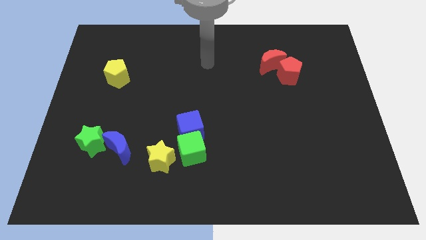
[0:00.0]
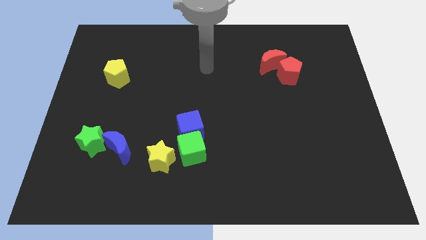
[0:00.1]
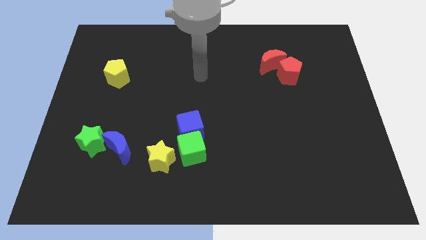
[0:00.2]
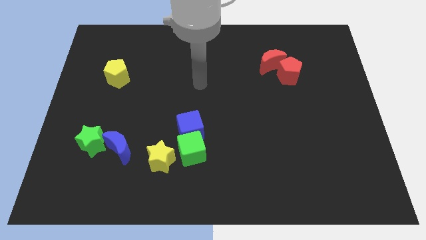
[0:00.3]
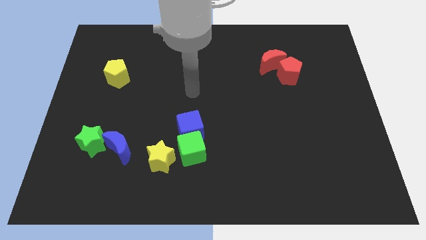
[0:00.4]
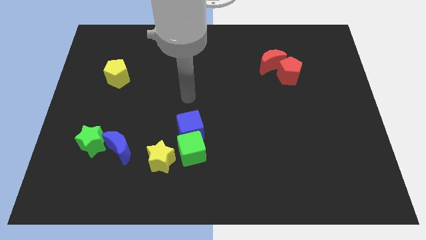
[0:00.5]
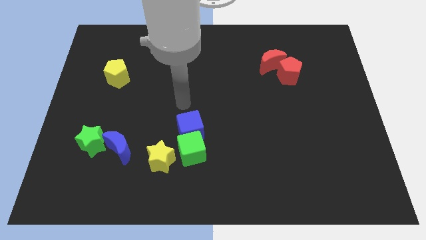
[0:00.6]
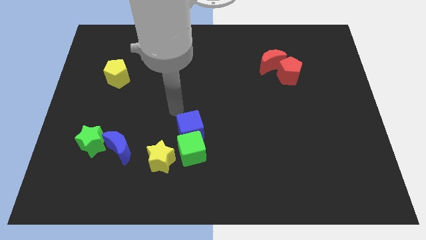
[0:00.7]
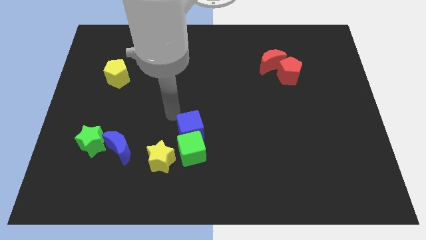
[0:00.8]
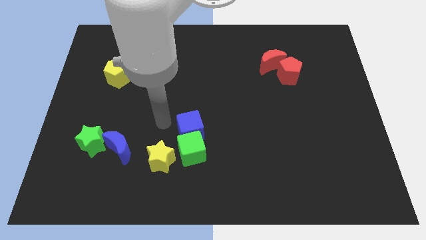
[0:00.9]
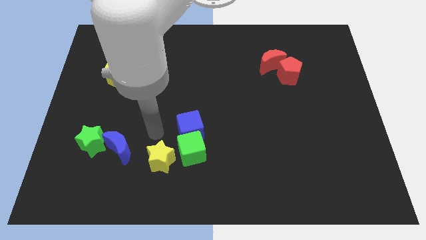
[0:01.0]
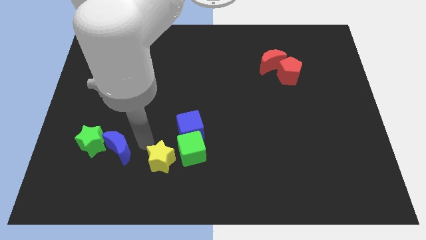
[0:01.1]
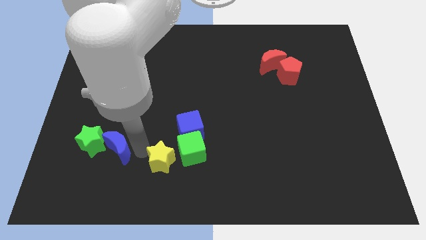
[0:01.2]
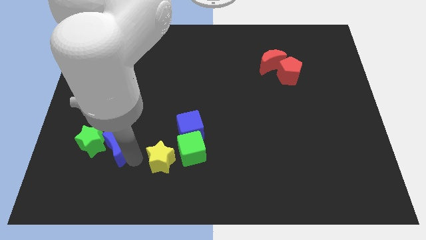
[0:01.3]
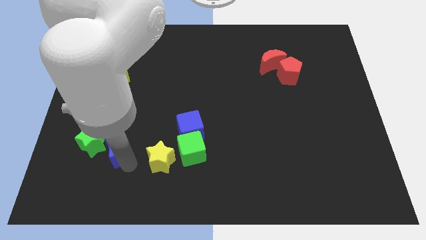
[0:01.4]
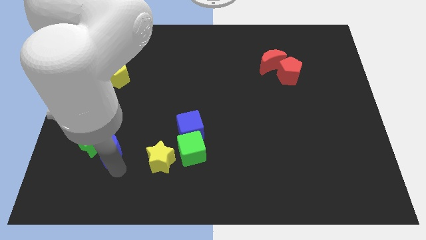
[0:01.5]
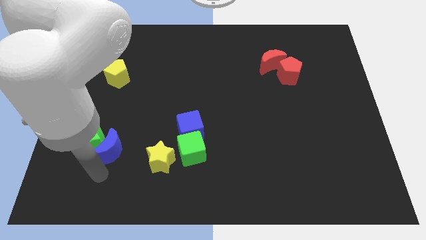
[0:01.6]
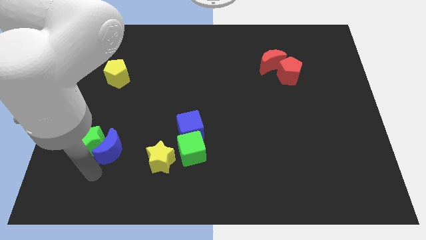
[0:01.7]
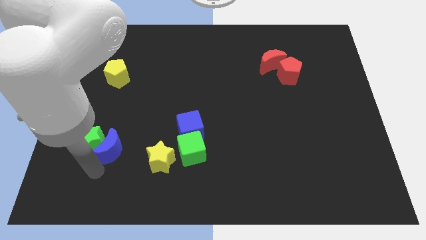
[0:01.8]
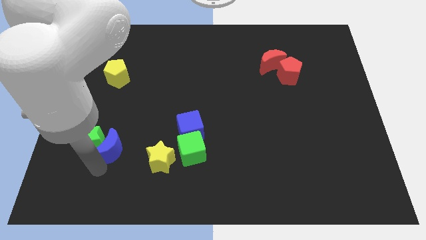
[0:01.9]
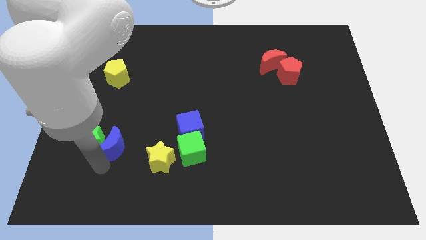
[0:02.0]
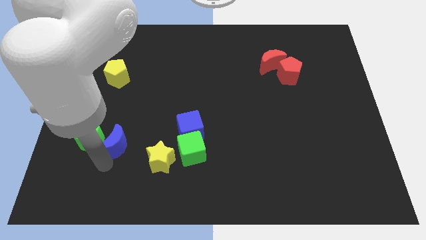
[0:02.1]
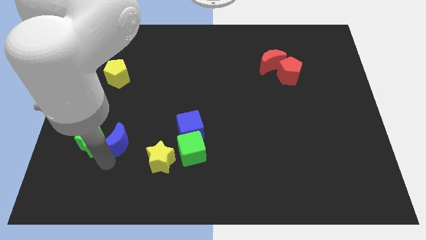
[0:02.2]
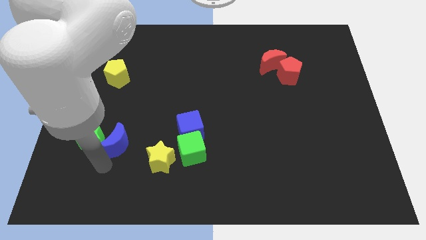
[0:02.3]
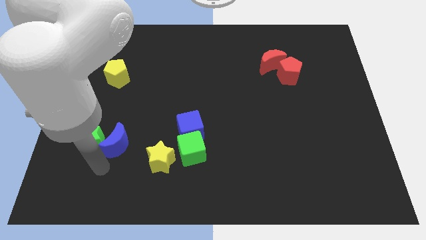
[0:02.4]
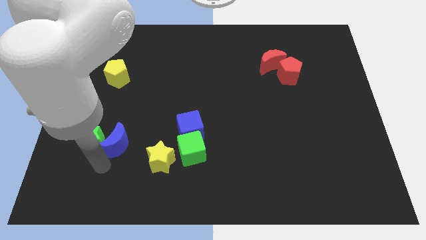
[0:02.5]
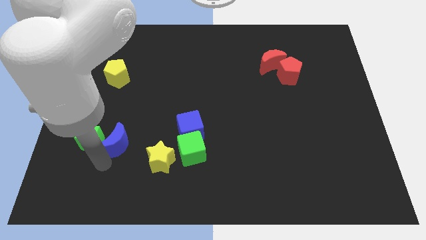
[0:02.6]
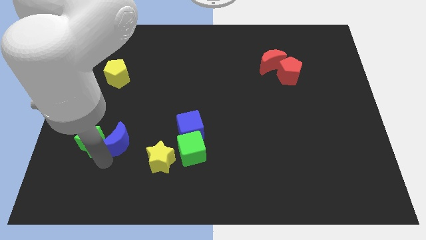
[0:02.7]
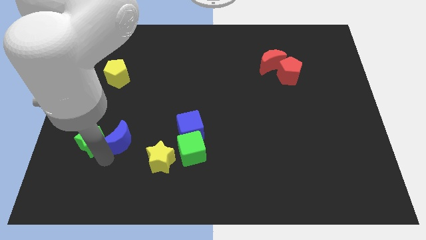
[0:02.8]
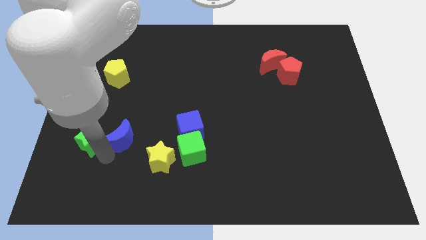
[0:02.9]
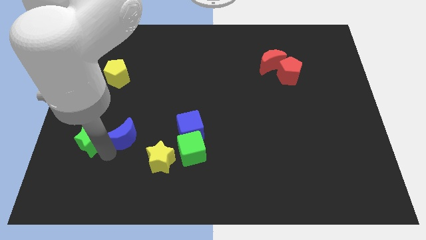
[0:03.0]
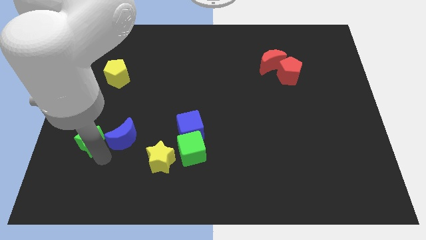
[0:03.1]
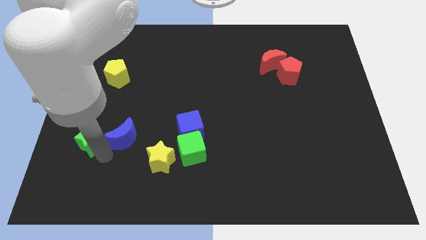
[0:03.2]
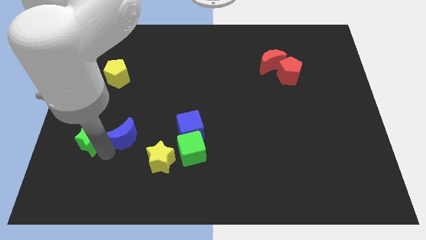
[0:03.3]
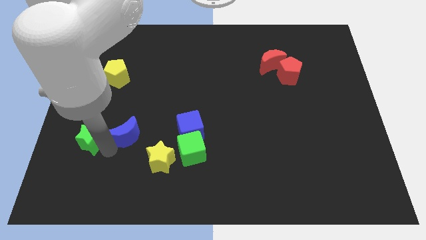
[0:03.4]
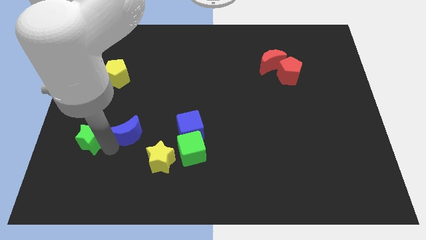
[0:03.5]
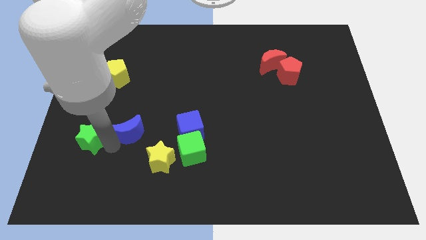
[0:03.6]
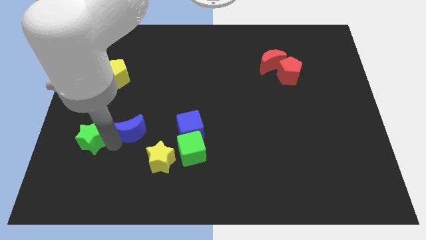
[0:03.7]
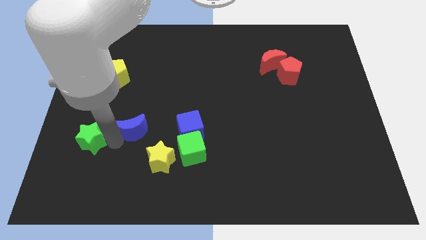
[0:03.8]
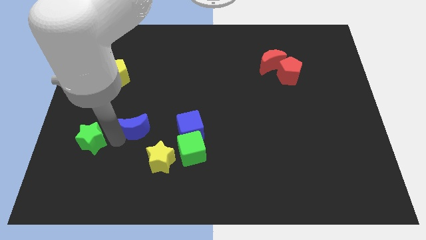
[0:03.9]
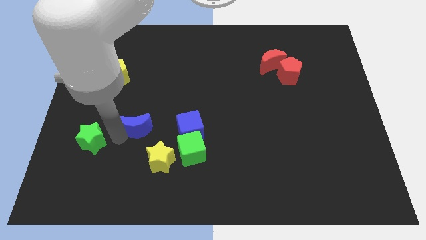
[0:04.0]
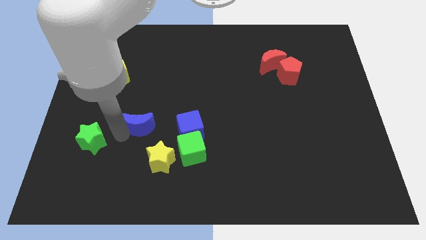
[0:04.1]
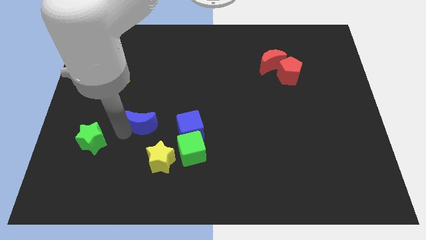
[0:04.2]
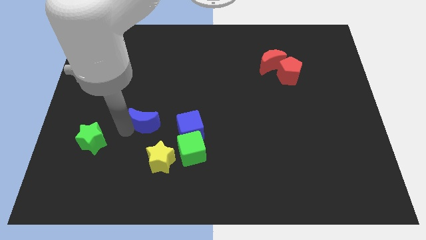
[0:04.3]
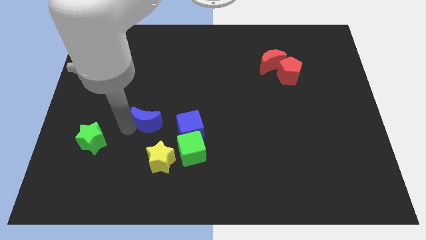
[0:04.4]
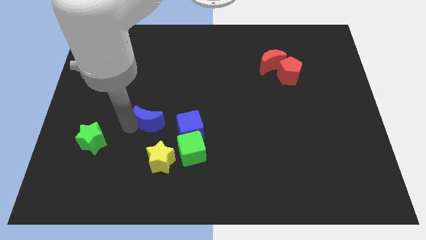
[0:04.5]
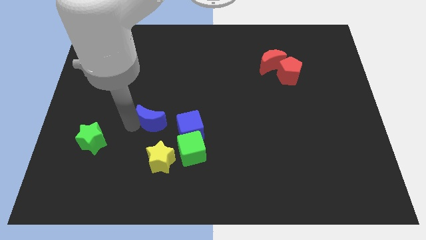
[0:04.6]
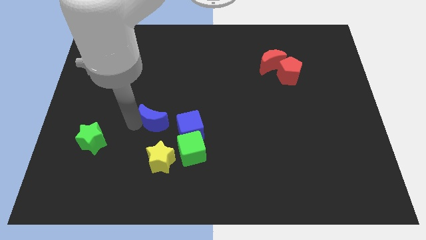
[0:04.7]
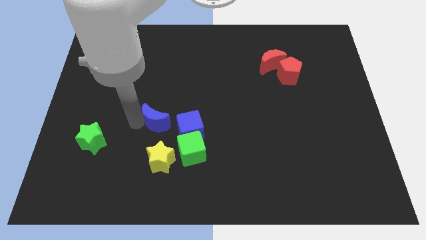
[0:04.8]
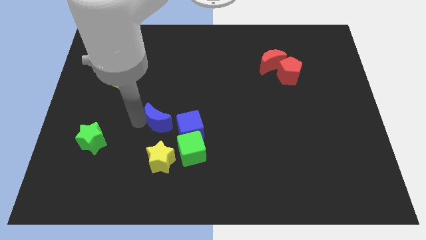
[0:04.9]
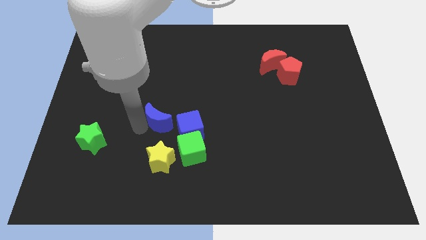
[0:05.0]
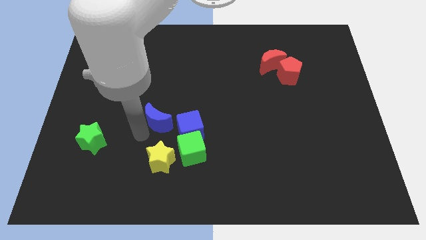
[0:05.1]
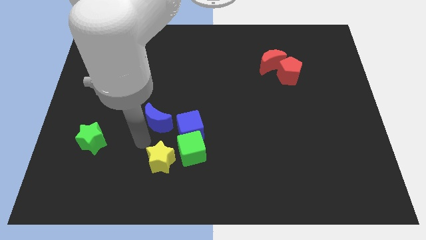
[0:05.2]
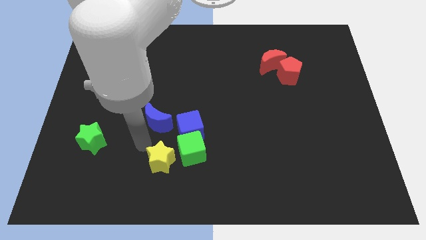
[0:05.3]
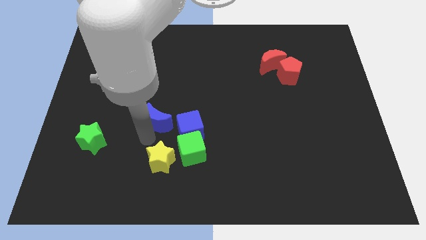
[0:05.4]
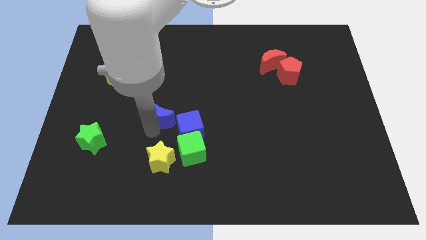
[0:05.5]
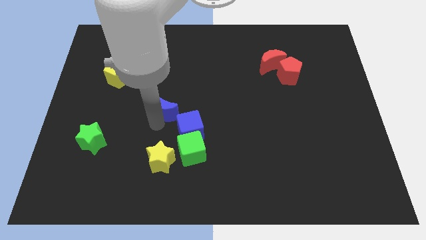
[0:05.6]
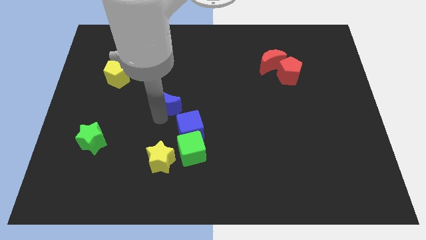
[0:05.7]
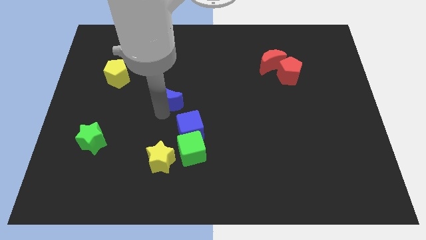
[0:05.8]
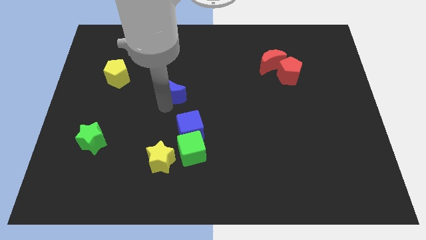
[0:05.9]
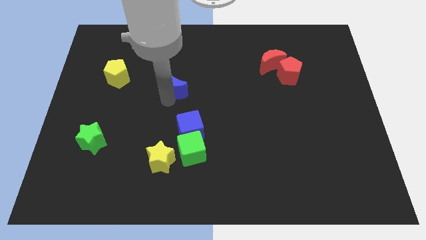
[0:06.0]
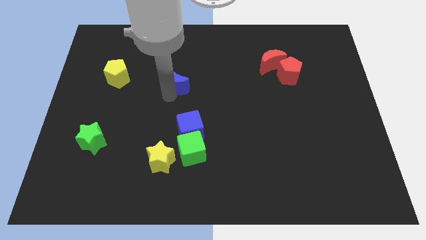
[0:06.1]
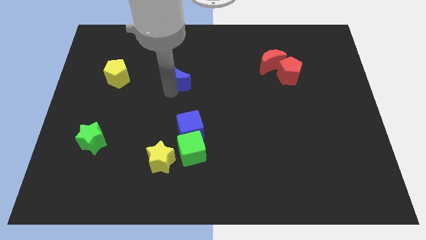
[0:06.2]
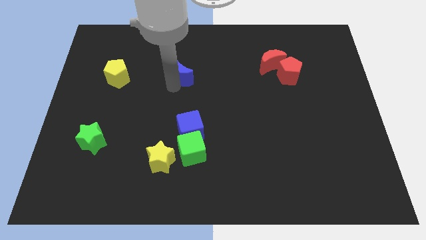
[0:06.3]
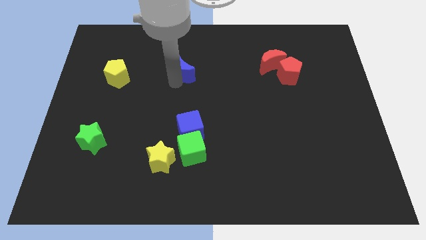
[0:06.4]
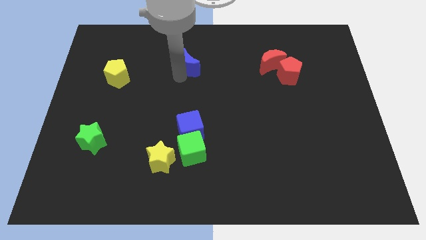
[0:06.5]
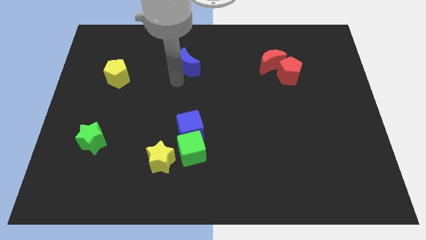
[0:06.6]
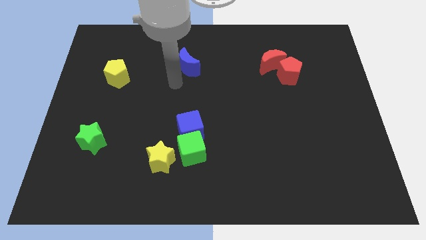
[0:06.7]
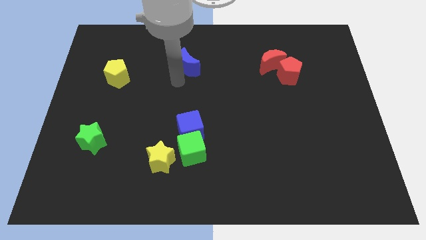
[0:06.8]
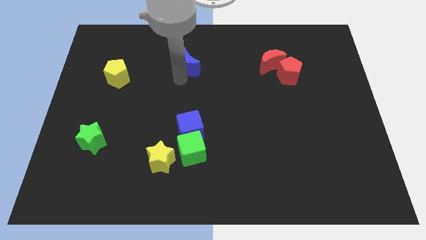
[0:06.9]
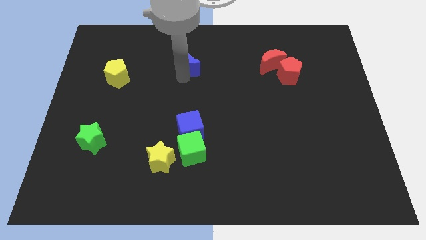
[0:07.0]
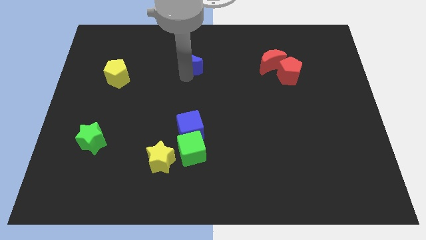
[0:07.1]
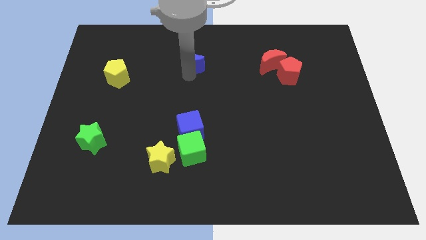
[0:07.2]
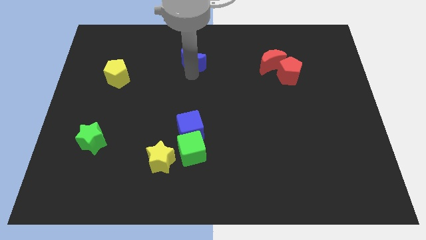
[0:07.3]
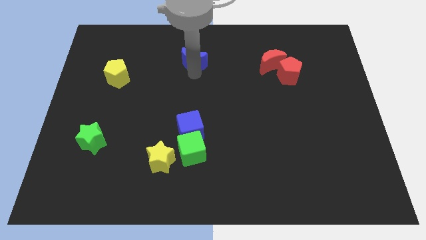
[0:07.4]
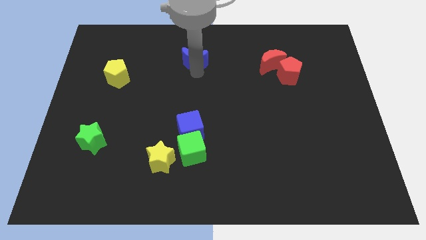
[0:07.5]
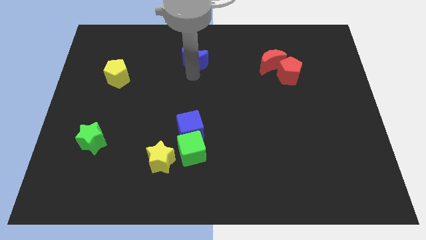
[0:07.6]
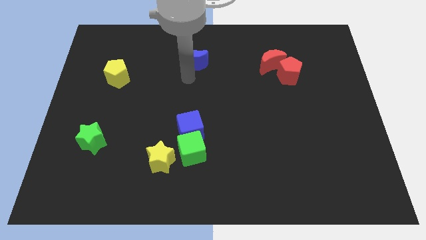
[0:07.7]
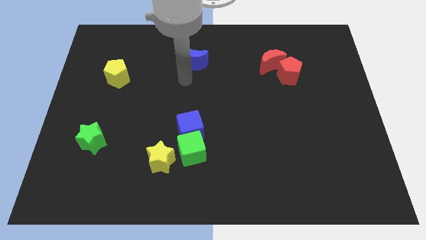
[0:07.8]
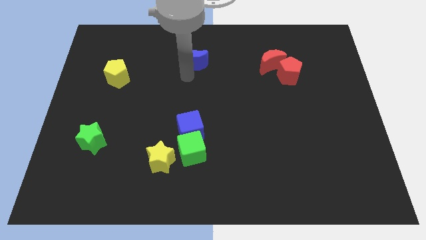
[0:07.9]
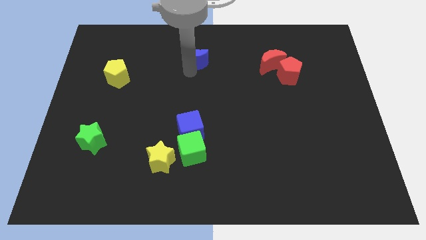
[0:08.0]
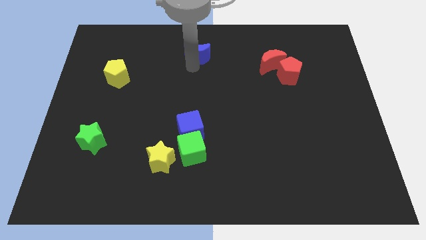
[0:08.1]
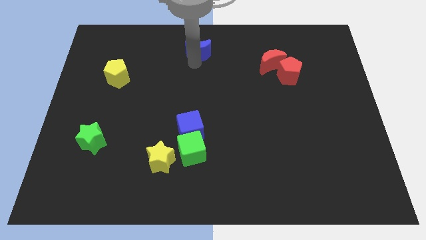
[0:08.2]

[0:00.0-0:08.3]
move the blue moon to the top side

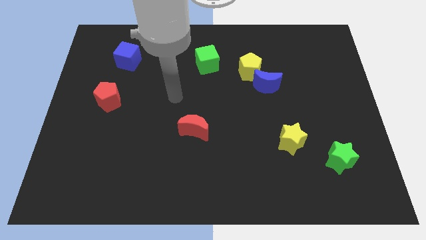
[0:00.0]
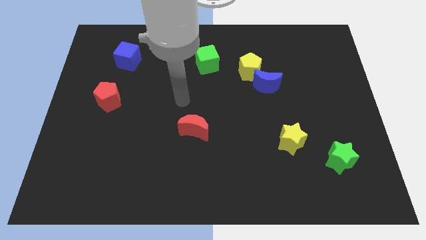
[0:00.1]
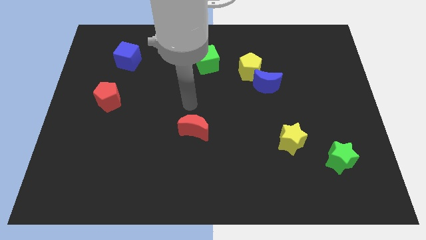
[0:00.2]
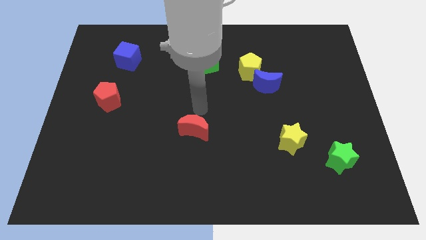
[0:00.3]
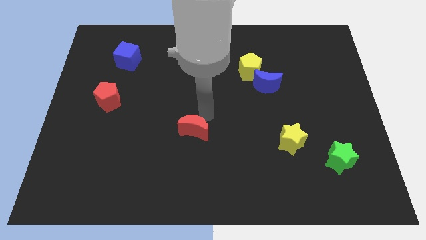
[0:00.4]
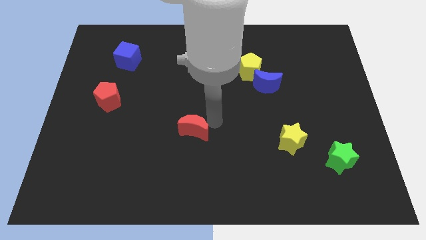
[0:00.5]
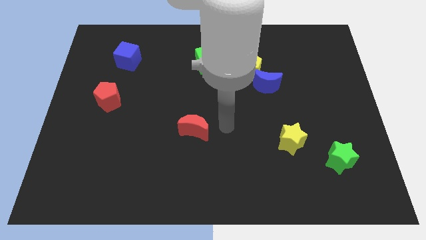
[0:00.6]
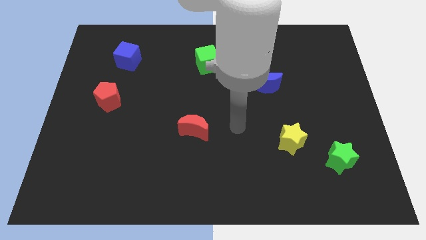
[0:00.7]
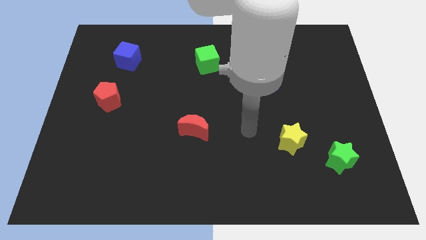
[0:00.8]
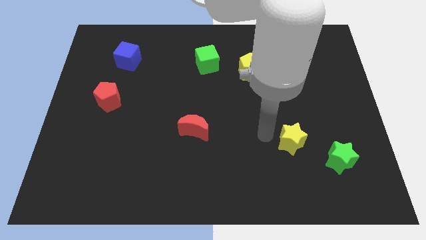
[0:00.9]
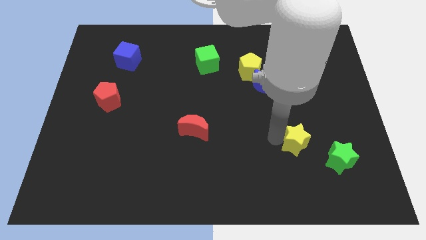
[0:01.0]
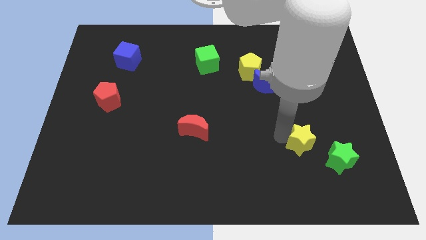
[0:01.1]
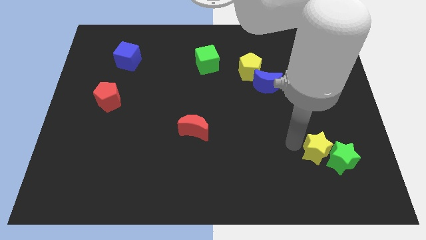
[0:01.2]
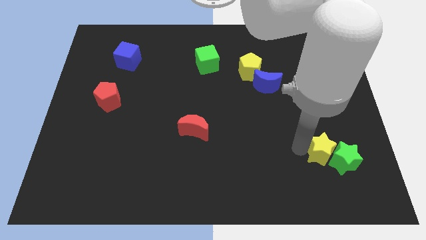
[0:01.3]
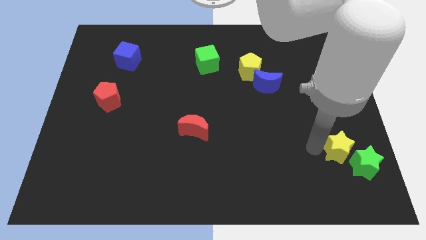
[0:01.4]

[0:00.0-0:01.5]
slide the green star to the bottom right
